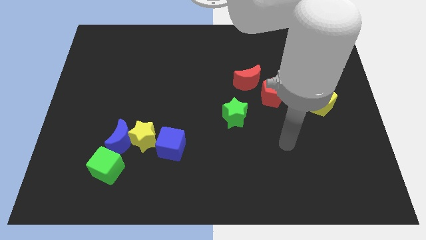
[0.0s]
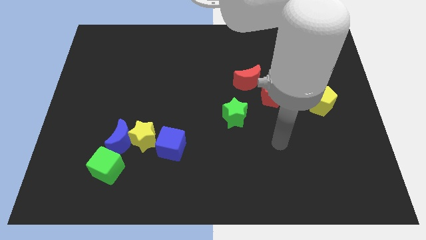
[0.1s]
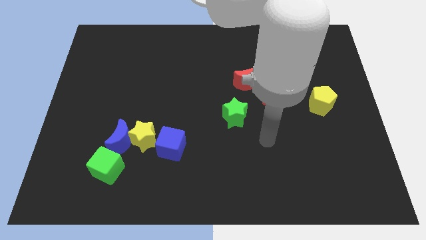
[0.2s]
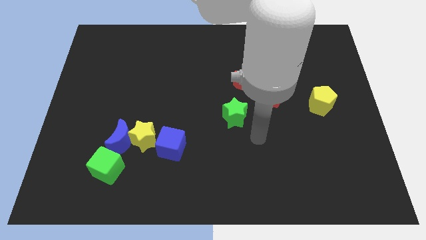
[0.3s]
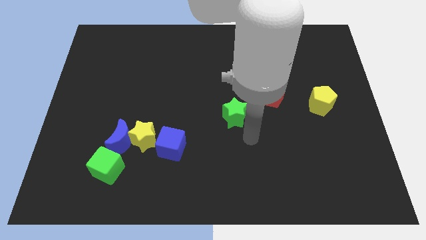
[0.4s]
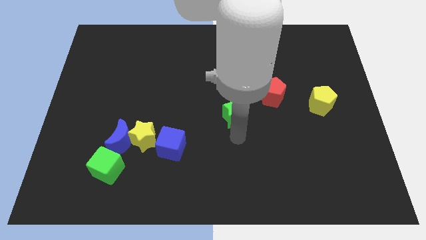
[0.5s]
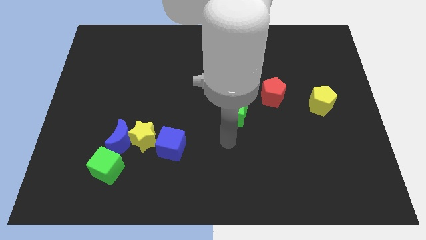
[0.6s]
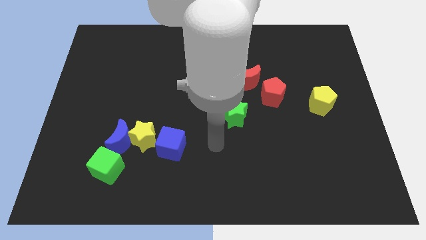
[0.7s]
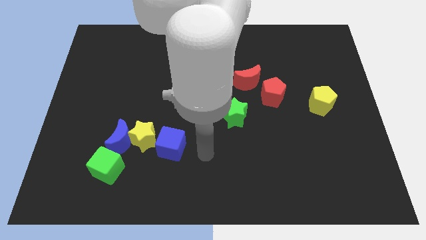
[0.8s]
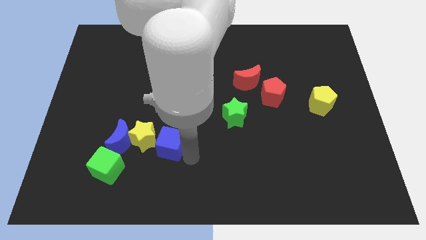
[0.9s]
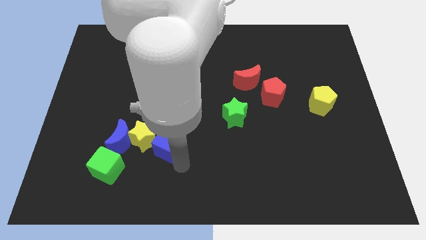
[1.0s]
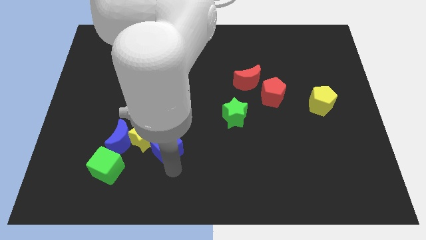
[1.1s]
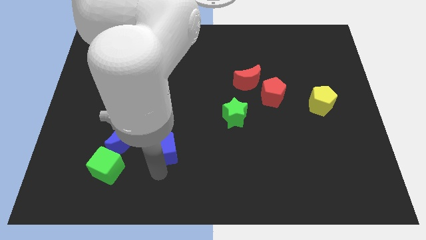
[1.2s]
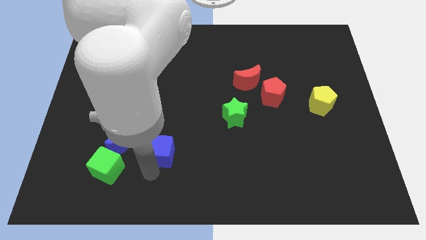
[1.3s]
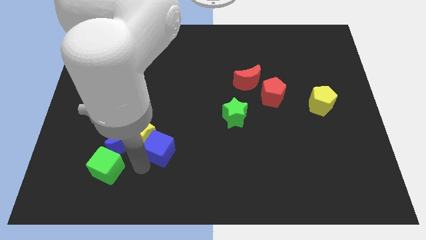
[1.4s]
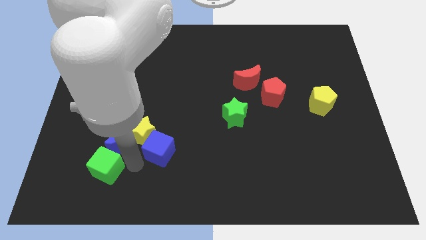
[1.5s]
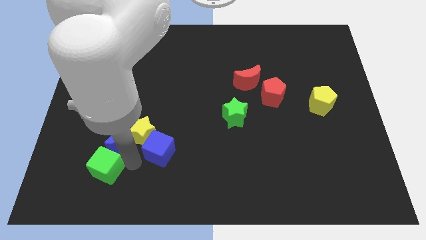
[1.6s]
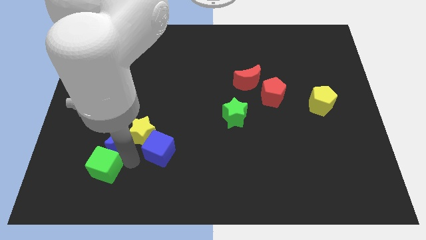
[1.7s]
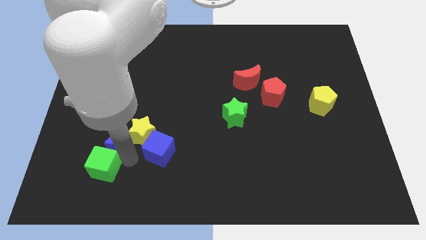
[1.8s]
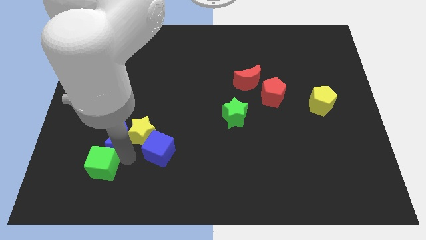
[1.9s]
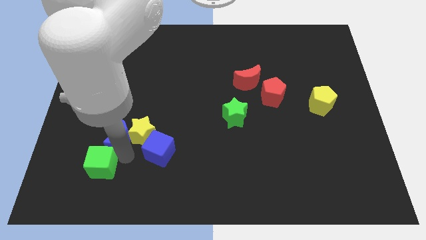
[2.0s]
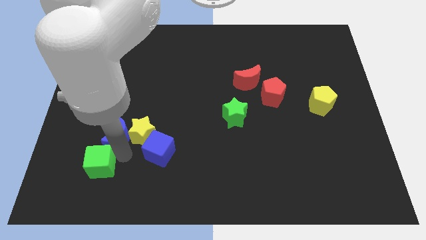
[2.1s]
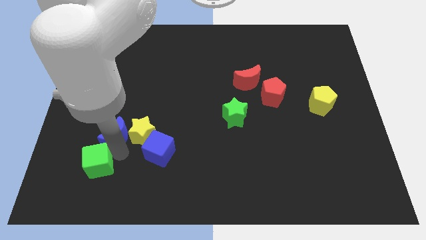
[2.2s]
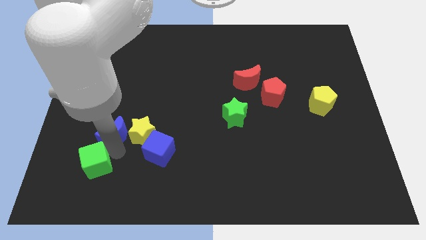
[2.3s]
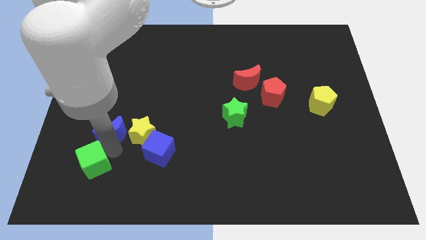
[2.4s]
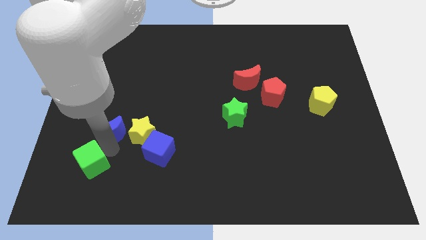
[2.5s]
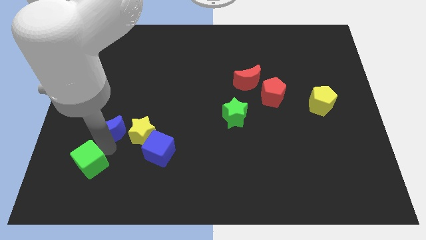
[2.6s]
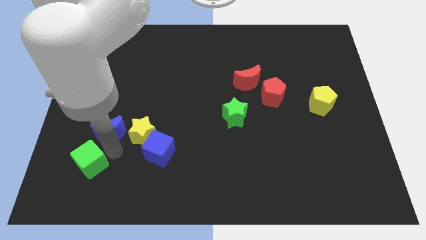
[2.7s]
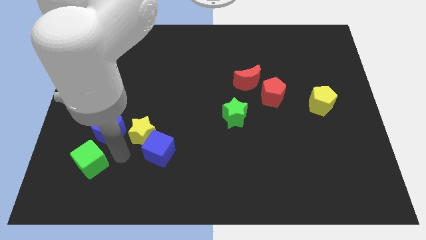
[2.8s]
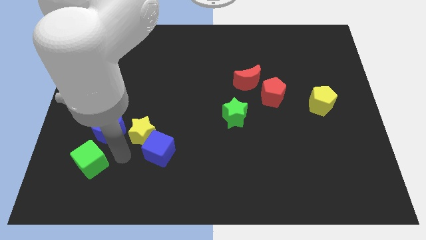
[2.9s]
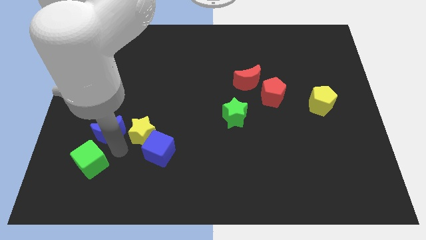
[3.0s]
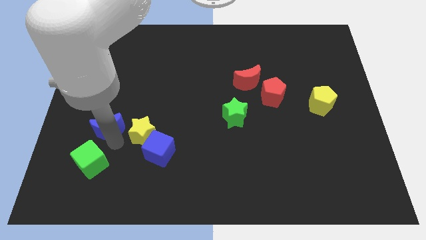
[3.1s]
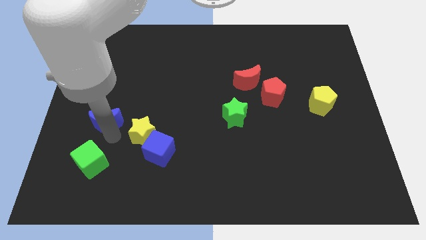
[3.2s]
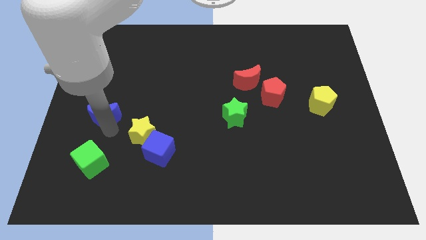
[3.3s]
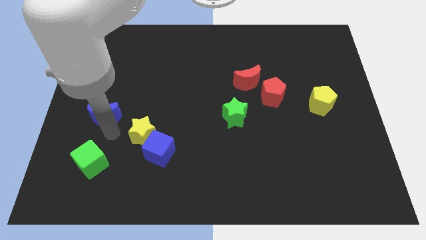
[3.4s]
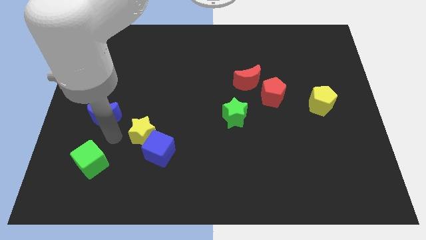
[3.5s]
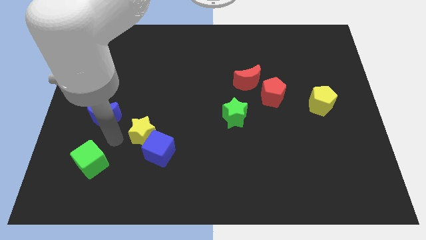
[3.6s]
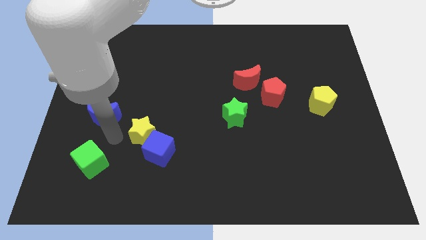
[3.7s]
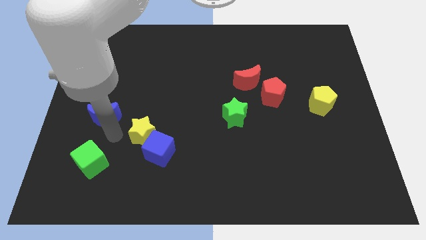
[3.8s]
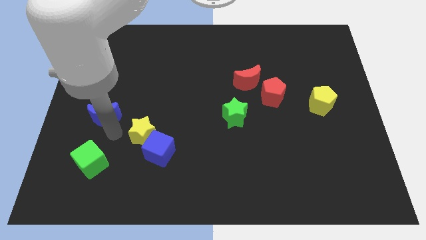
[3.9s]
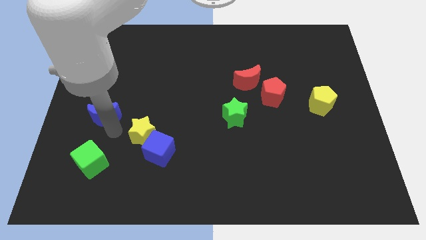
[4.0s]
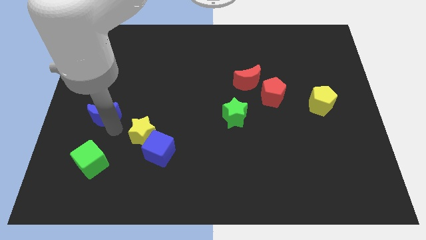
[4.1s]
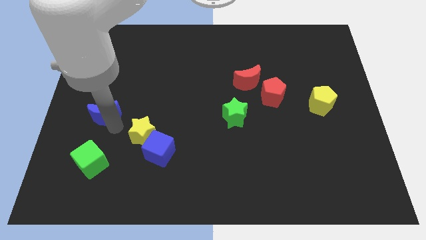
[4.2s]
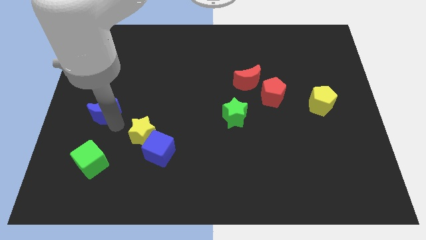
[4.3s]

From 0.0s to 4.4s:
pull the blue moon apart from the yellow star and green cube

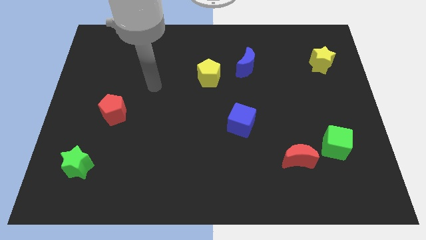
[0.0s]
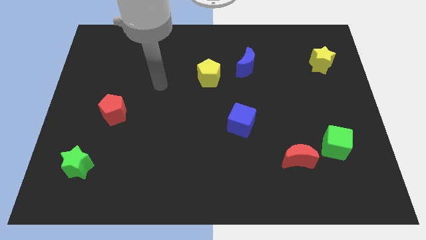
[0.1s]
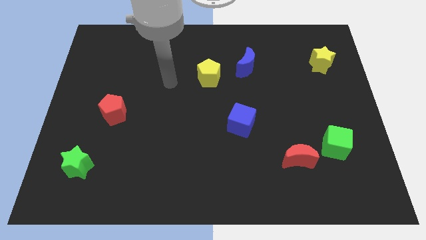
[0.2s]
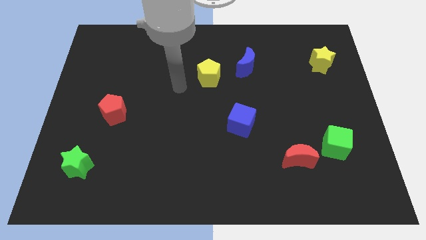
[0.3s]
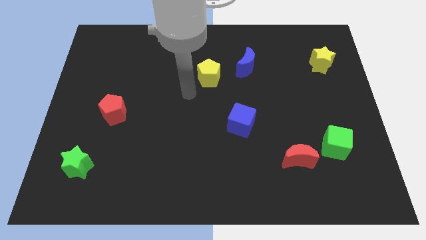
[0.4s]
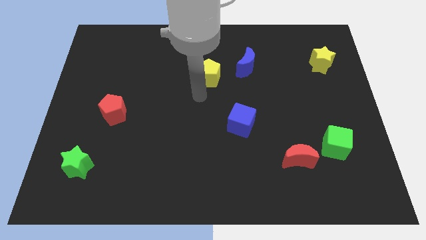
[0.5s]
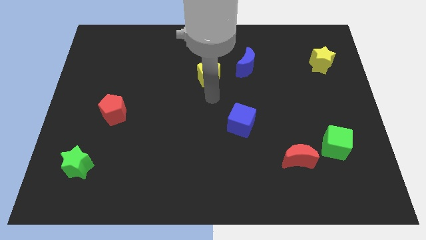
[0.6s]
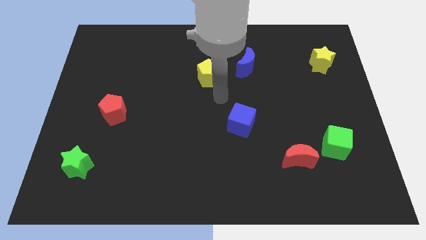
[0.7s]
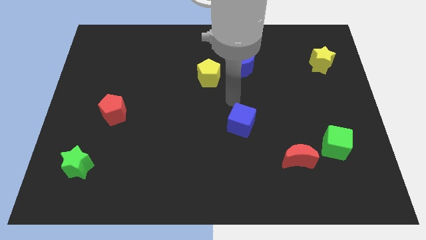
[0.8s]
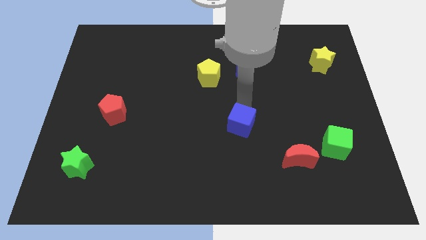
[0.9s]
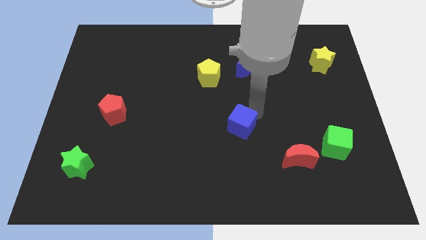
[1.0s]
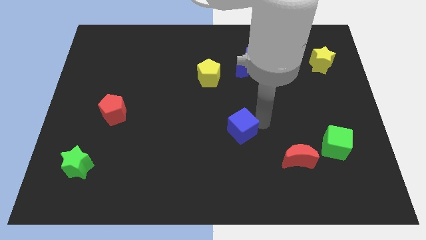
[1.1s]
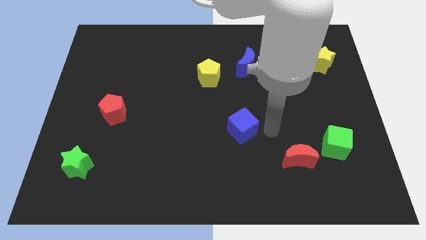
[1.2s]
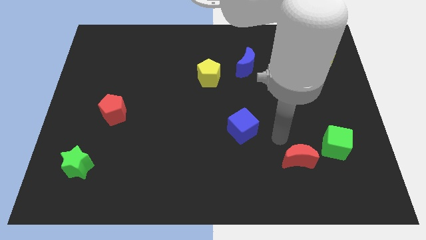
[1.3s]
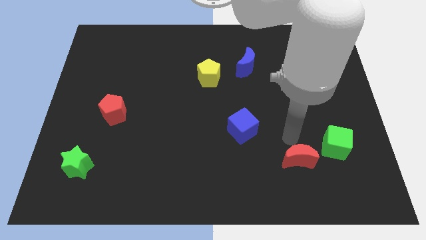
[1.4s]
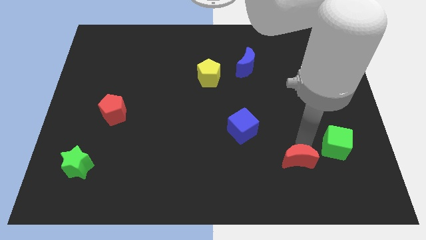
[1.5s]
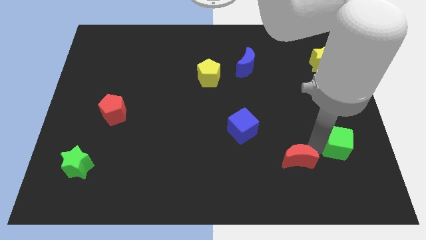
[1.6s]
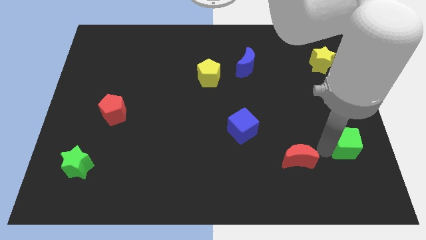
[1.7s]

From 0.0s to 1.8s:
move the red moon away from the green cube

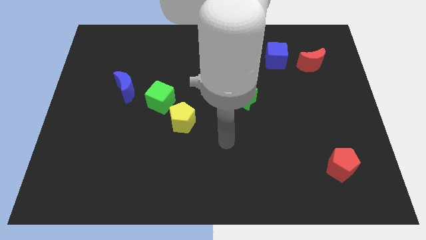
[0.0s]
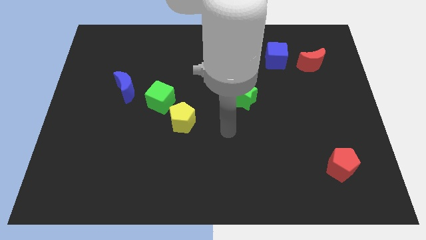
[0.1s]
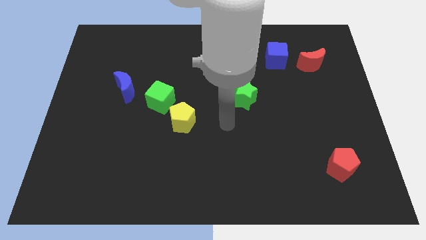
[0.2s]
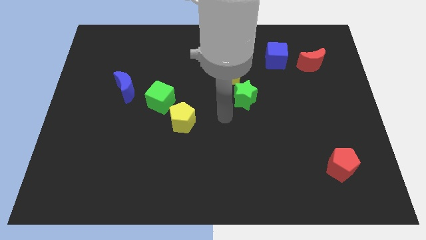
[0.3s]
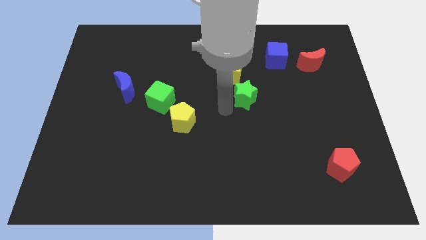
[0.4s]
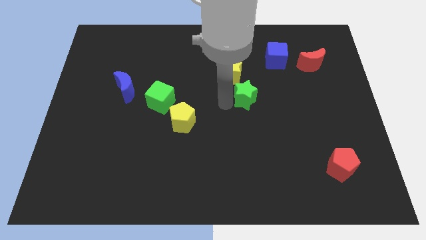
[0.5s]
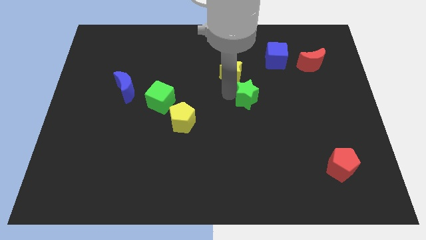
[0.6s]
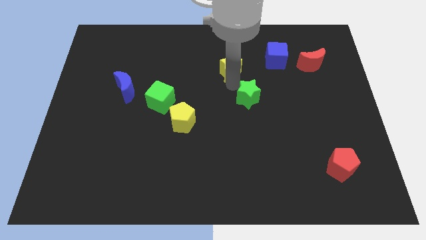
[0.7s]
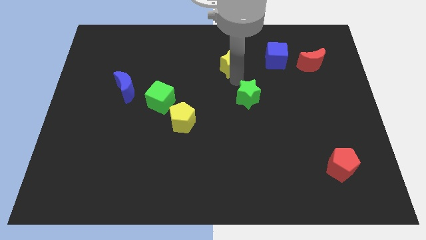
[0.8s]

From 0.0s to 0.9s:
pull the green star apart from the yellow star

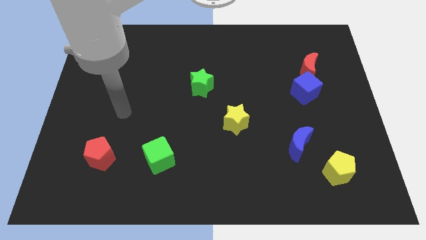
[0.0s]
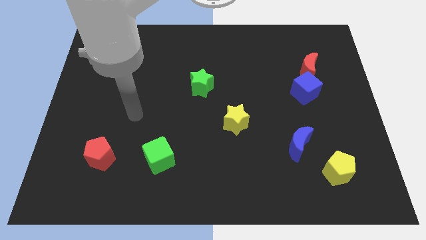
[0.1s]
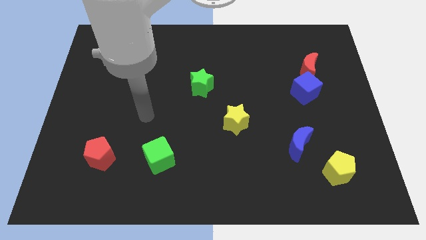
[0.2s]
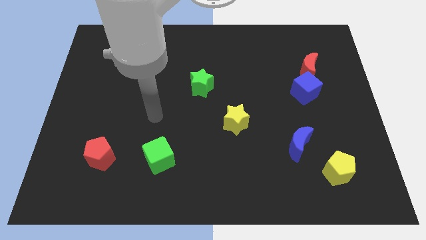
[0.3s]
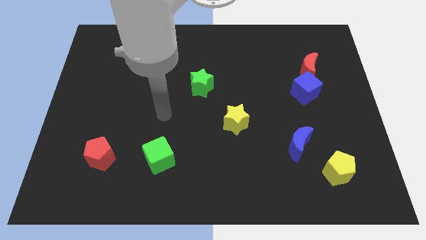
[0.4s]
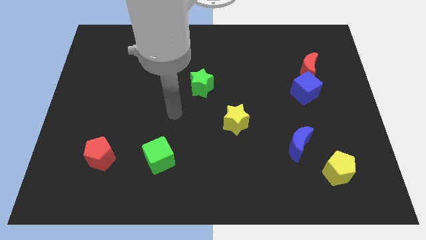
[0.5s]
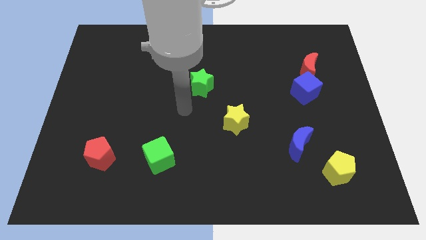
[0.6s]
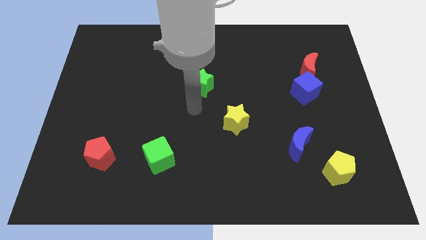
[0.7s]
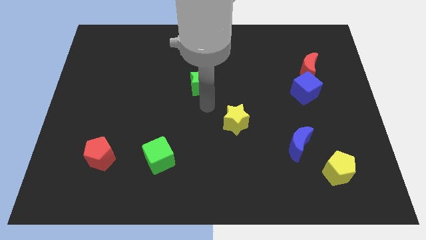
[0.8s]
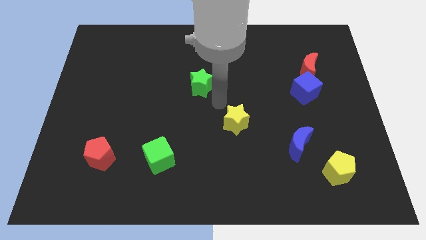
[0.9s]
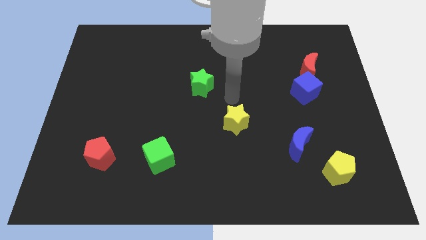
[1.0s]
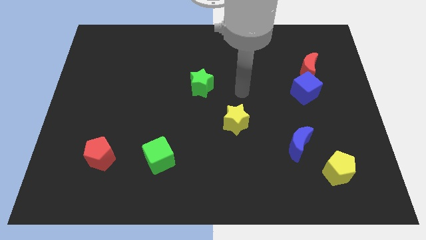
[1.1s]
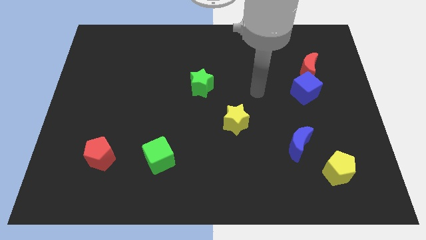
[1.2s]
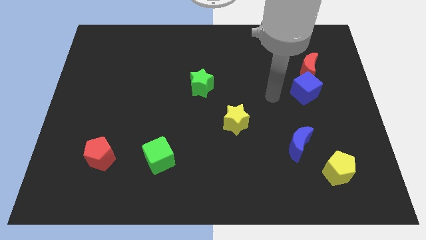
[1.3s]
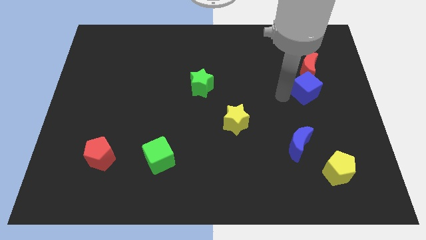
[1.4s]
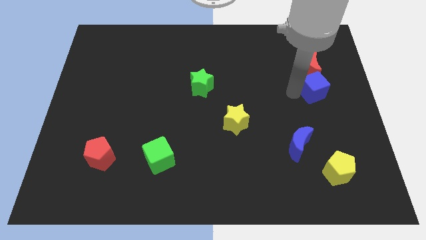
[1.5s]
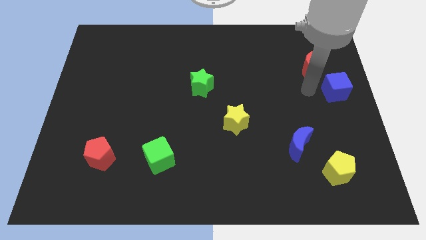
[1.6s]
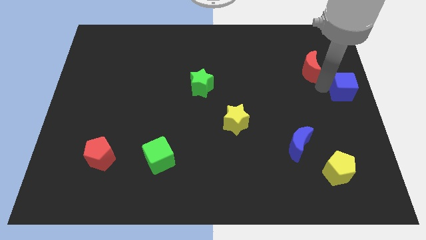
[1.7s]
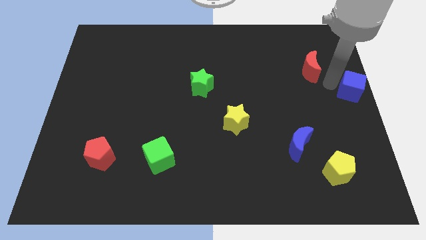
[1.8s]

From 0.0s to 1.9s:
pull the red moon apart from the blue cube

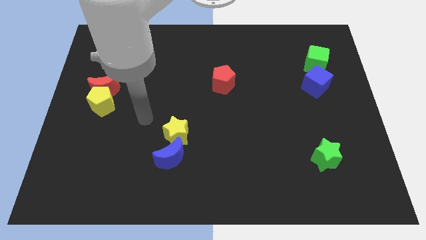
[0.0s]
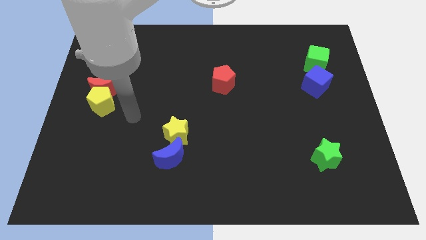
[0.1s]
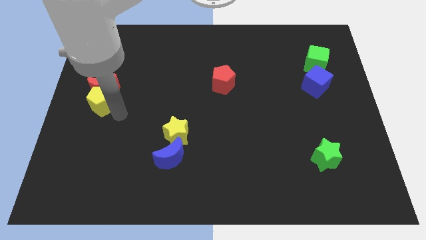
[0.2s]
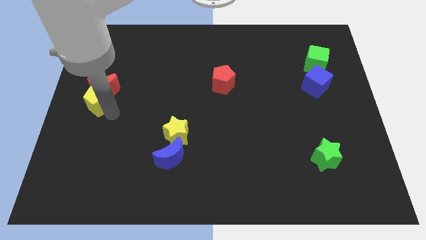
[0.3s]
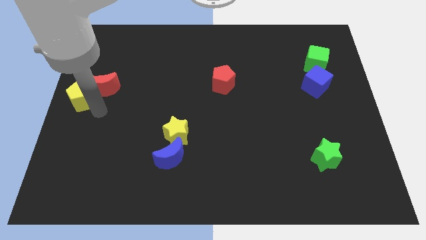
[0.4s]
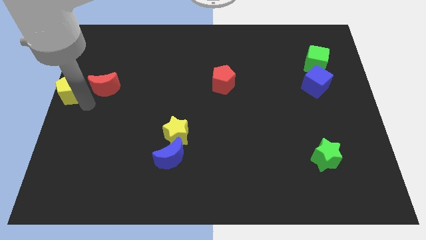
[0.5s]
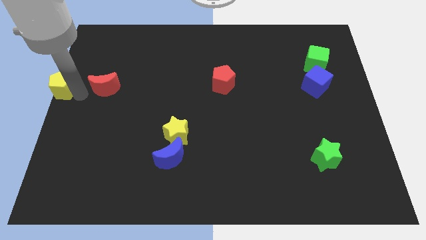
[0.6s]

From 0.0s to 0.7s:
pull the red moon apart from the yellow pentagon
